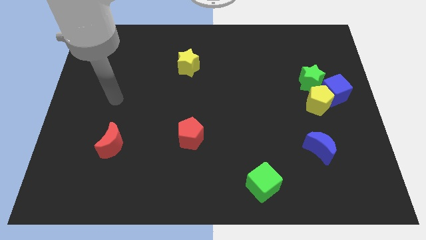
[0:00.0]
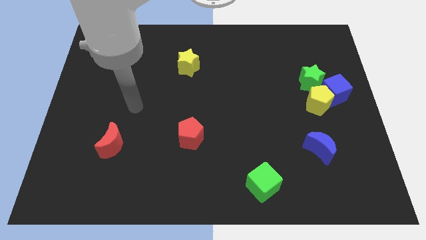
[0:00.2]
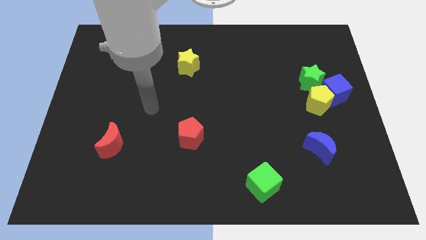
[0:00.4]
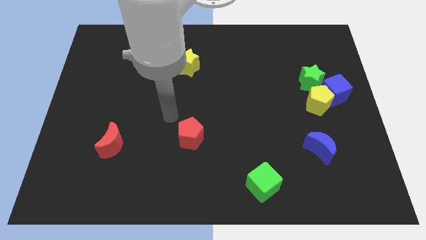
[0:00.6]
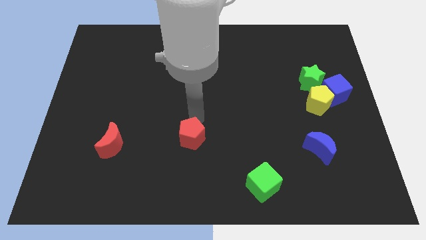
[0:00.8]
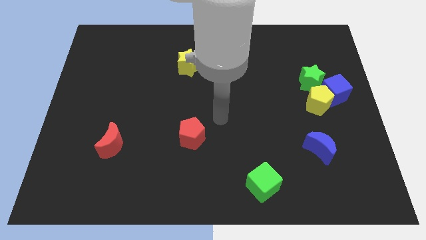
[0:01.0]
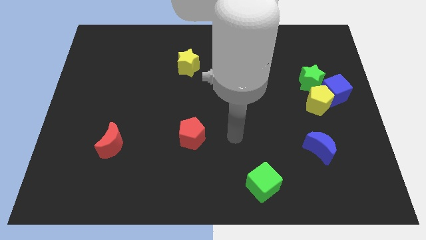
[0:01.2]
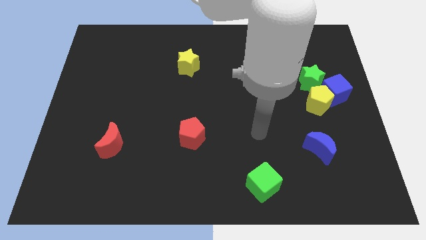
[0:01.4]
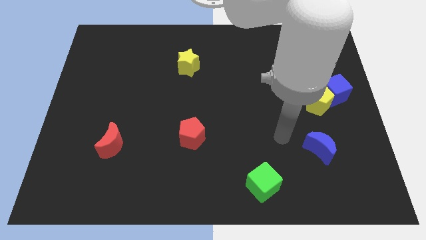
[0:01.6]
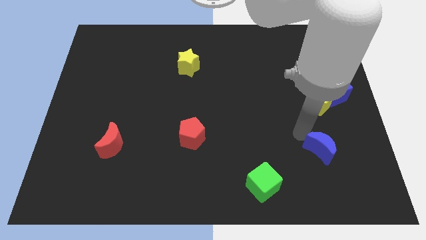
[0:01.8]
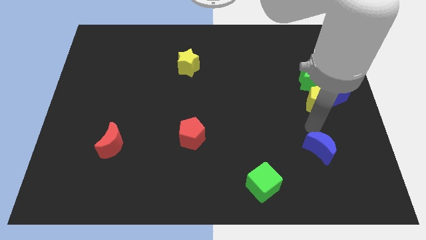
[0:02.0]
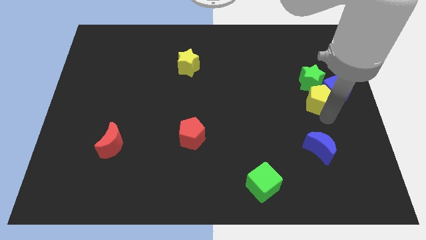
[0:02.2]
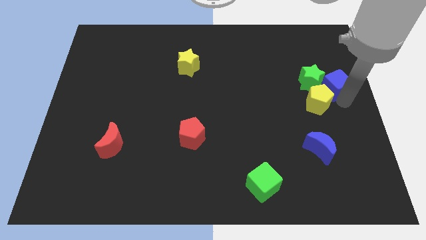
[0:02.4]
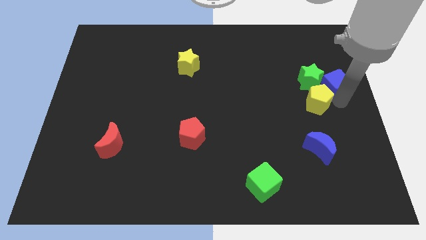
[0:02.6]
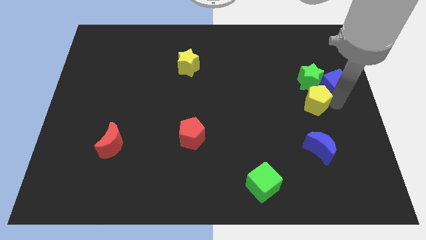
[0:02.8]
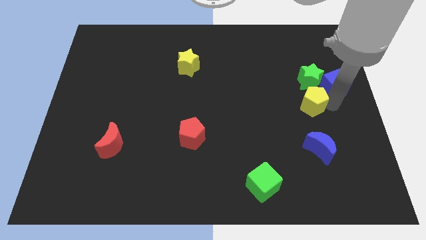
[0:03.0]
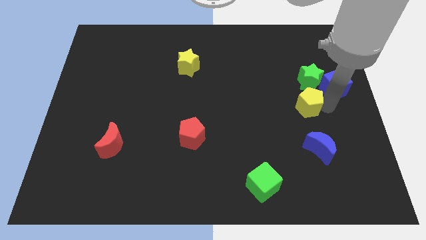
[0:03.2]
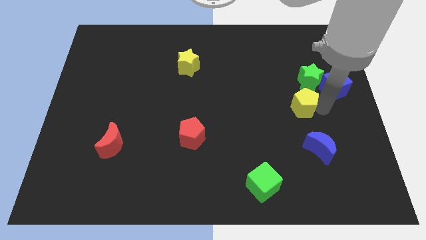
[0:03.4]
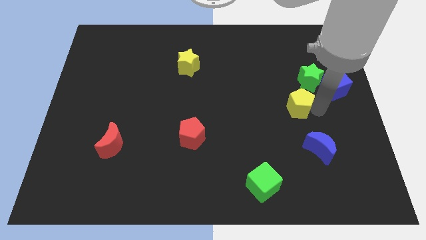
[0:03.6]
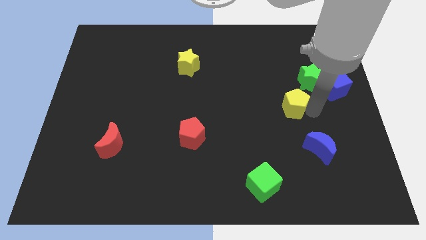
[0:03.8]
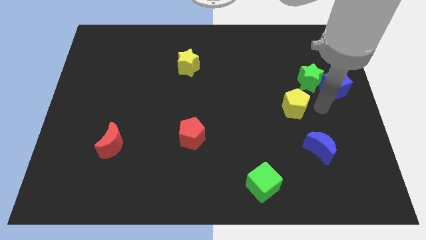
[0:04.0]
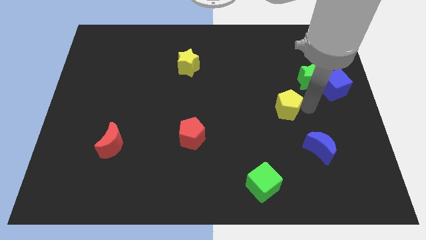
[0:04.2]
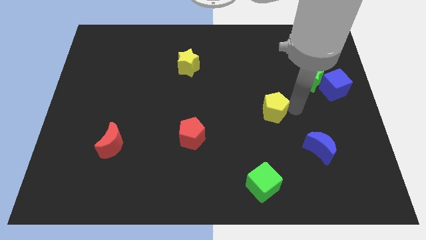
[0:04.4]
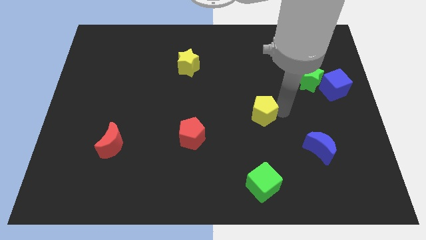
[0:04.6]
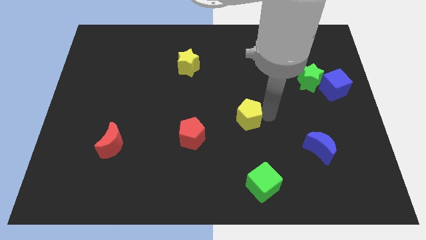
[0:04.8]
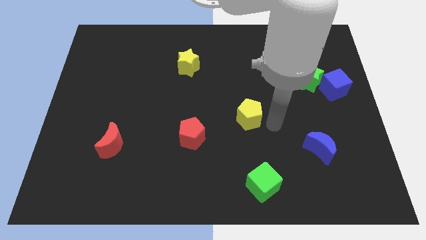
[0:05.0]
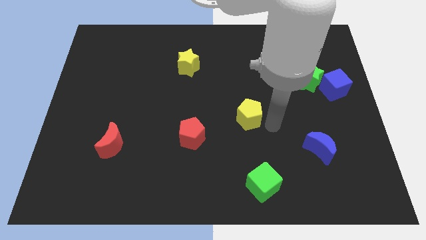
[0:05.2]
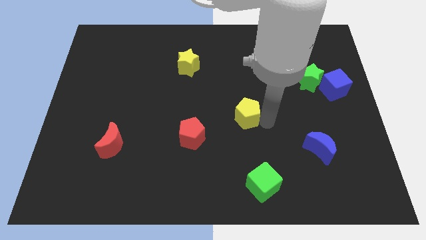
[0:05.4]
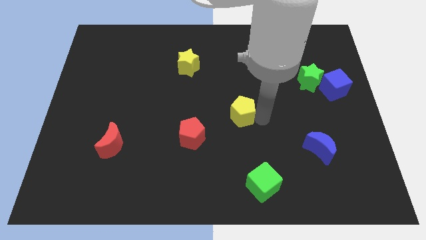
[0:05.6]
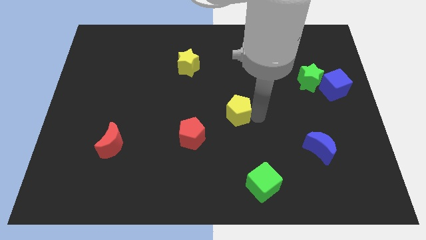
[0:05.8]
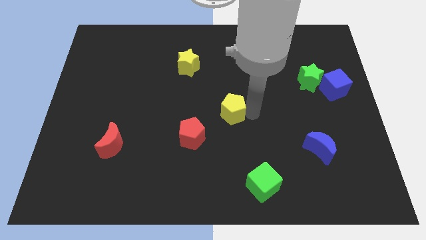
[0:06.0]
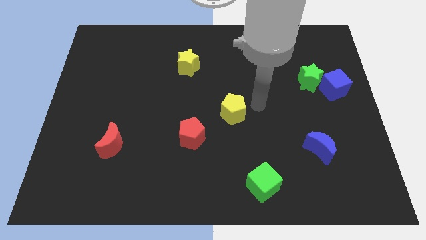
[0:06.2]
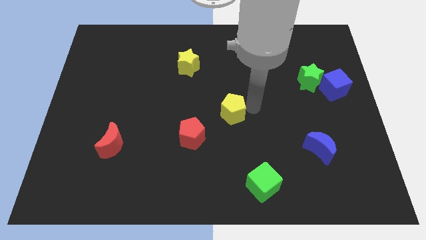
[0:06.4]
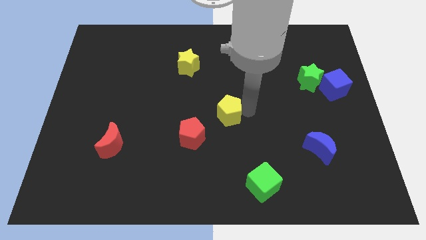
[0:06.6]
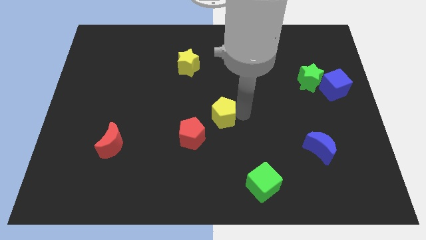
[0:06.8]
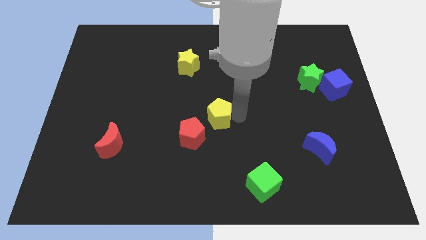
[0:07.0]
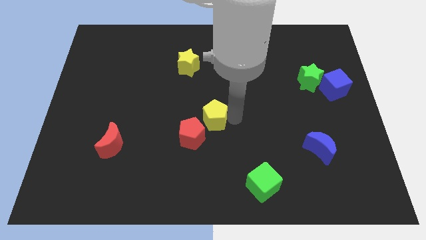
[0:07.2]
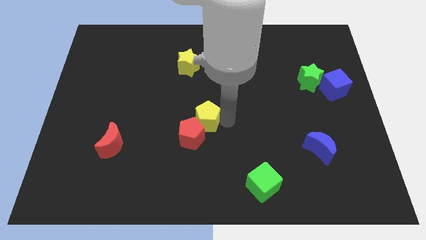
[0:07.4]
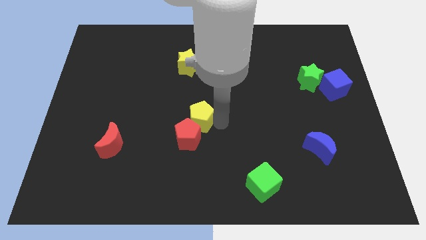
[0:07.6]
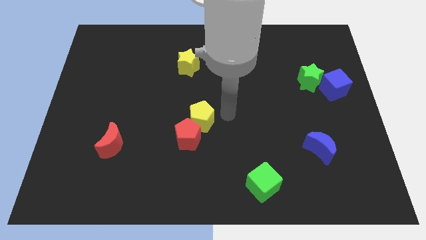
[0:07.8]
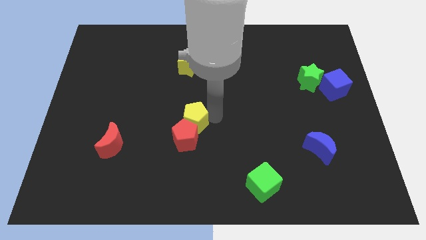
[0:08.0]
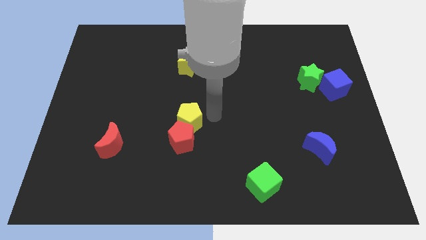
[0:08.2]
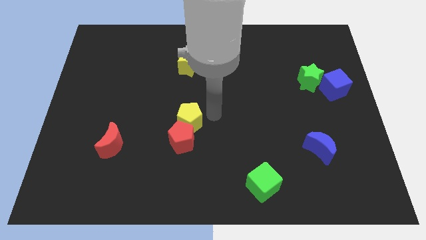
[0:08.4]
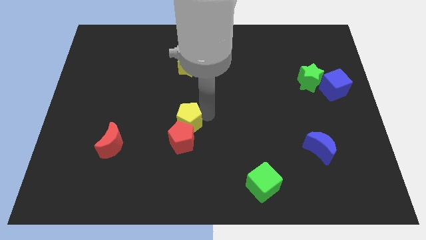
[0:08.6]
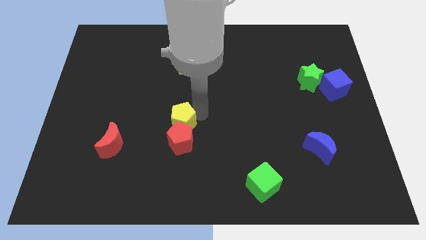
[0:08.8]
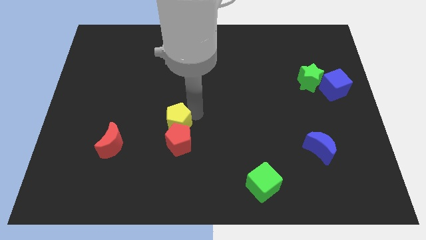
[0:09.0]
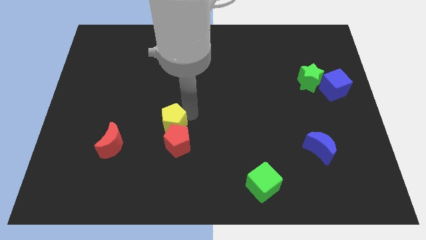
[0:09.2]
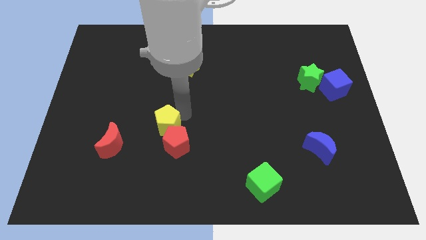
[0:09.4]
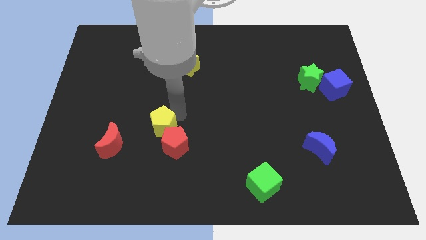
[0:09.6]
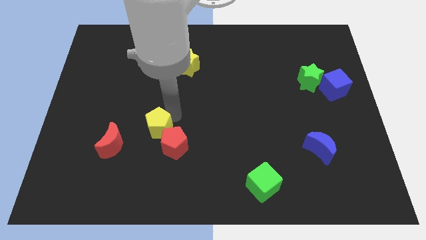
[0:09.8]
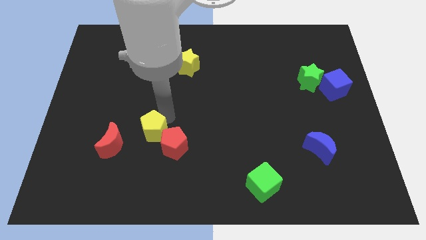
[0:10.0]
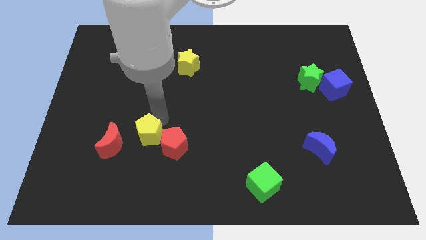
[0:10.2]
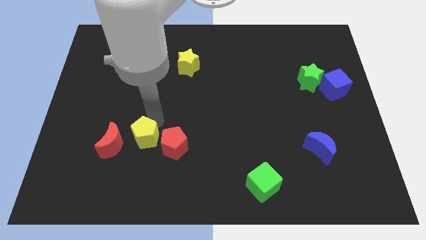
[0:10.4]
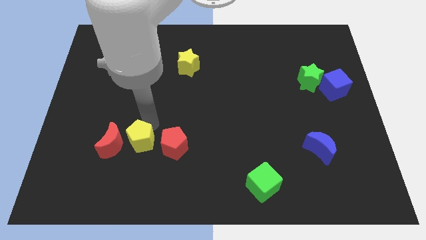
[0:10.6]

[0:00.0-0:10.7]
push the yellow pentagon close to the red moon

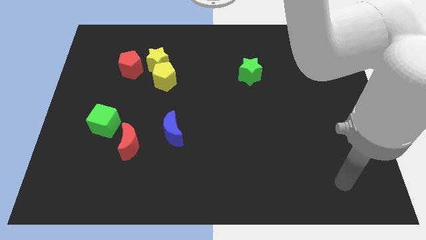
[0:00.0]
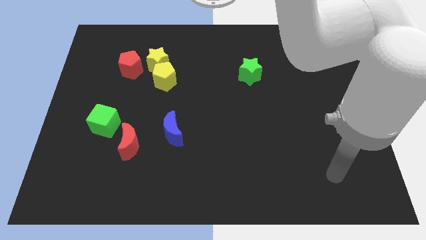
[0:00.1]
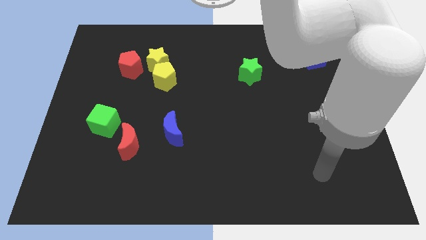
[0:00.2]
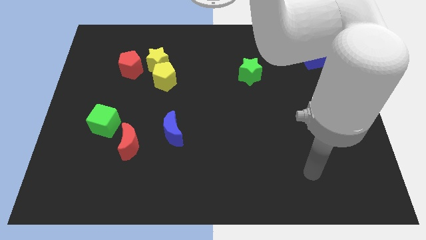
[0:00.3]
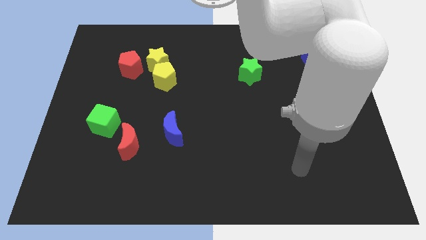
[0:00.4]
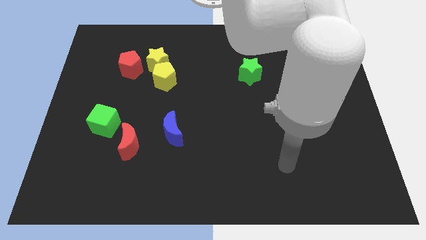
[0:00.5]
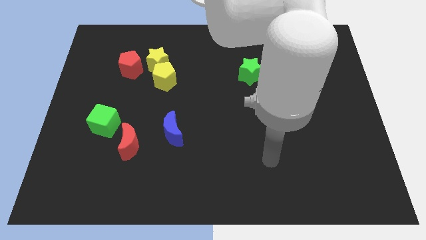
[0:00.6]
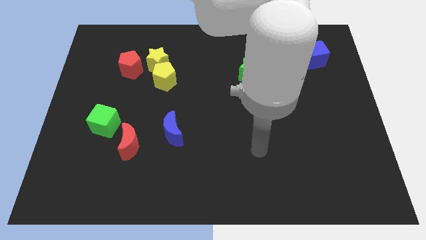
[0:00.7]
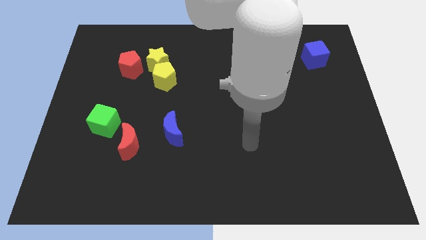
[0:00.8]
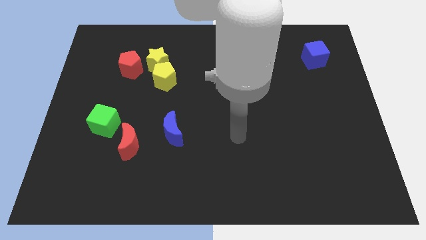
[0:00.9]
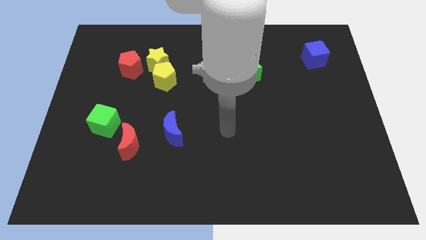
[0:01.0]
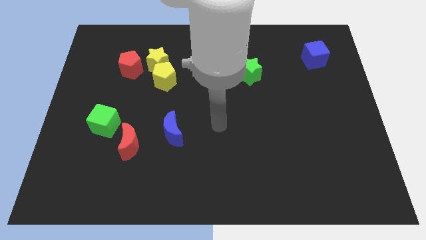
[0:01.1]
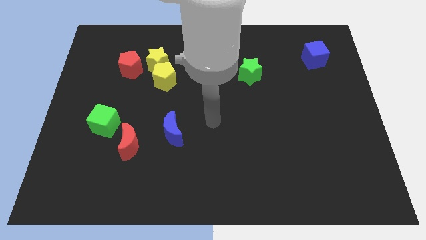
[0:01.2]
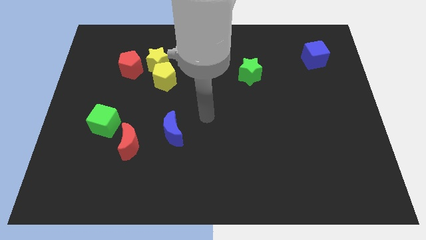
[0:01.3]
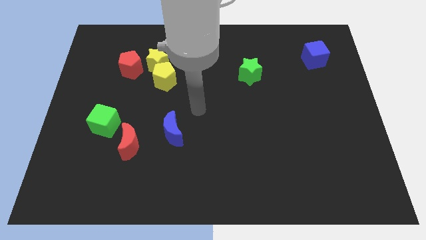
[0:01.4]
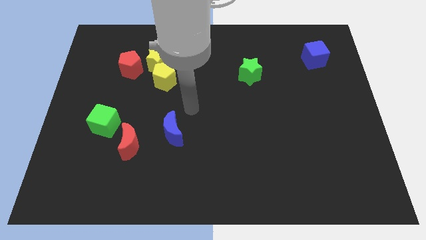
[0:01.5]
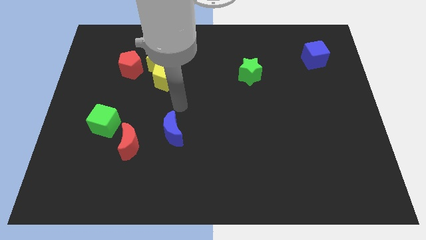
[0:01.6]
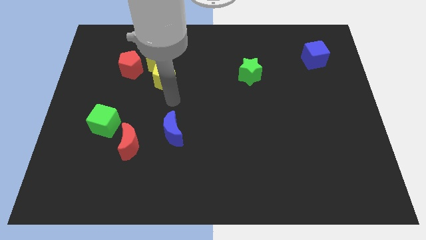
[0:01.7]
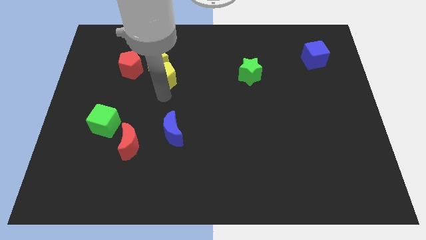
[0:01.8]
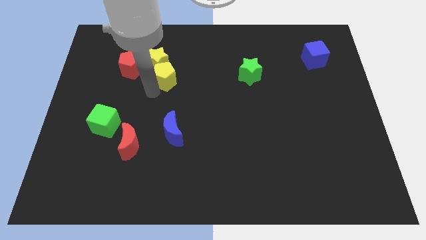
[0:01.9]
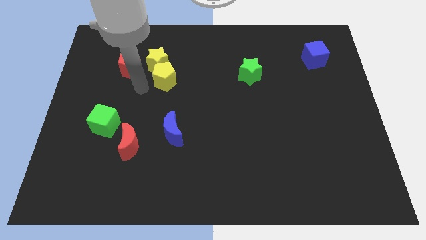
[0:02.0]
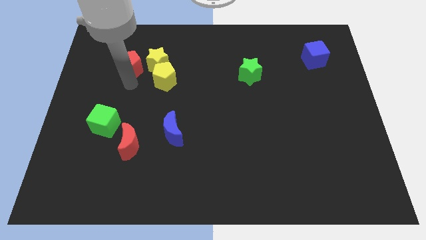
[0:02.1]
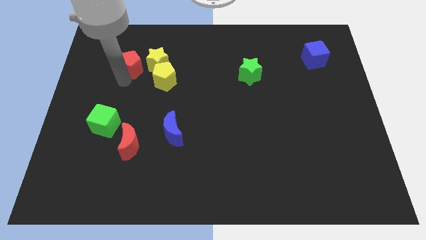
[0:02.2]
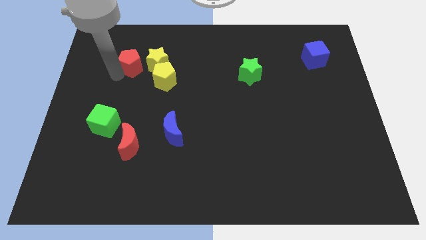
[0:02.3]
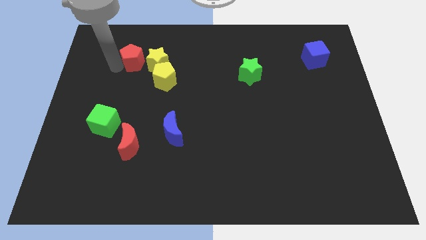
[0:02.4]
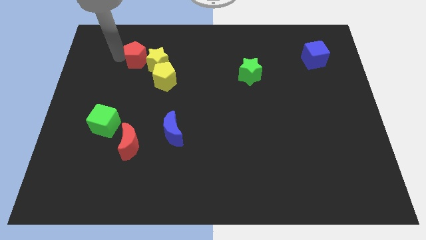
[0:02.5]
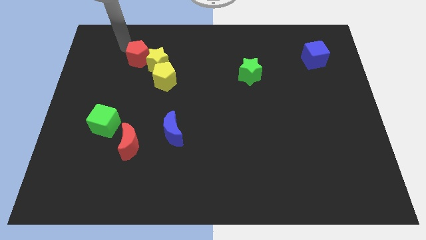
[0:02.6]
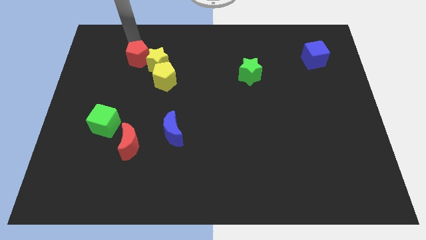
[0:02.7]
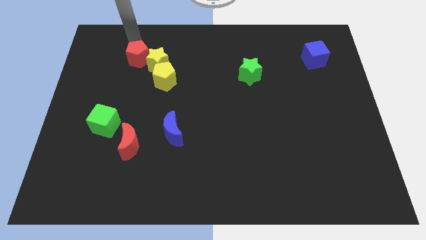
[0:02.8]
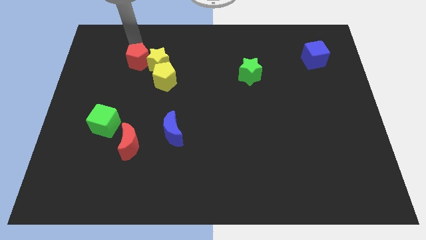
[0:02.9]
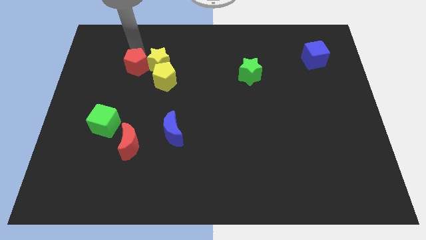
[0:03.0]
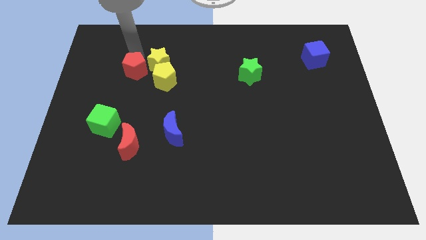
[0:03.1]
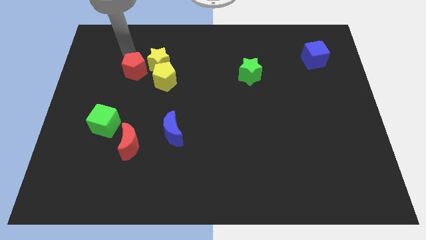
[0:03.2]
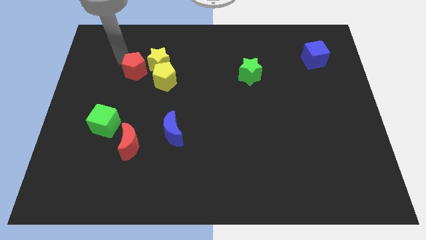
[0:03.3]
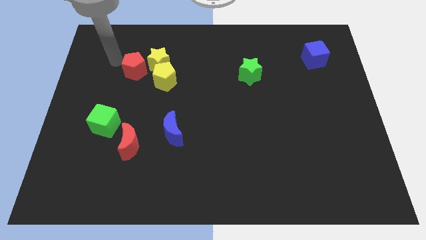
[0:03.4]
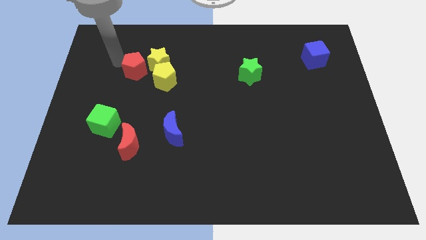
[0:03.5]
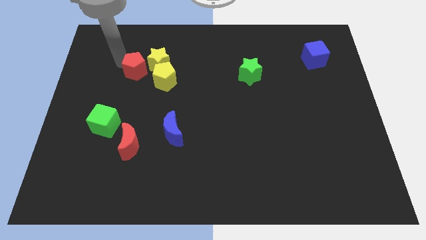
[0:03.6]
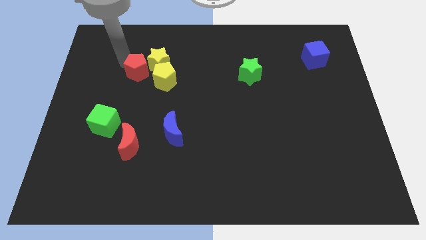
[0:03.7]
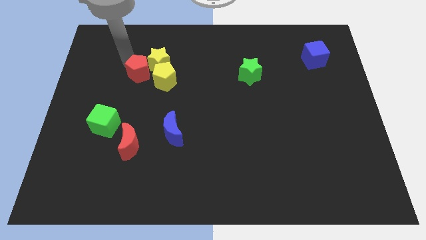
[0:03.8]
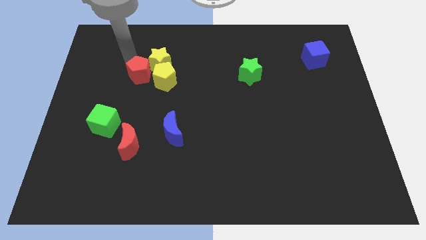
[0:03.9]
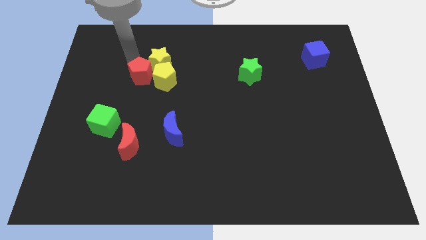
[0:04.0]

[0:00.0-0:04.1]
slide the red pentagon towards the yellow pentagon
